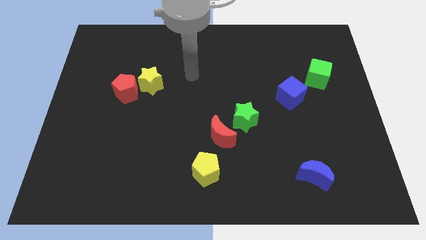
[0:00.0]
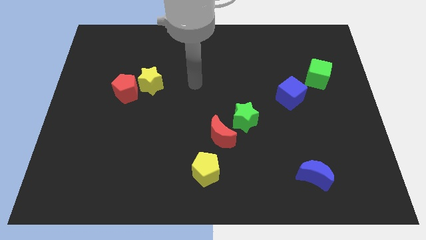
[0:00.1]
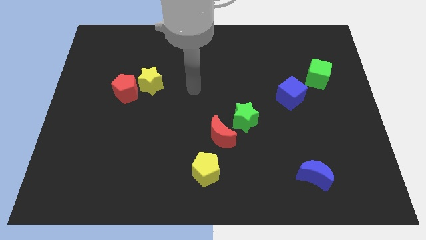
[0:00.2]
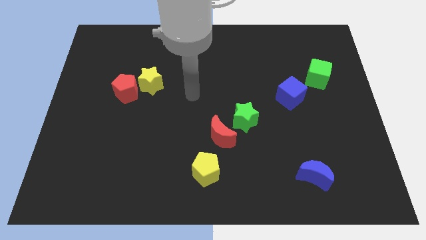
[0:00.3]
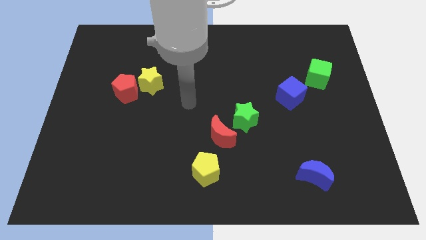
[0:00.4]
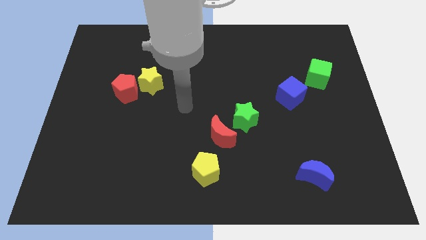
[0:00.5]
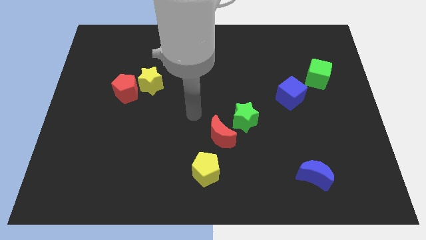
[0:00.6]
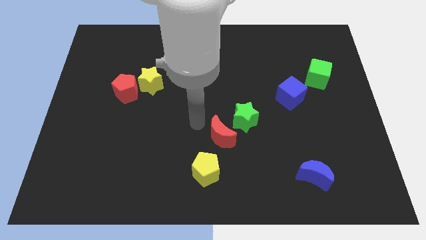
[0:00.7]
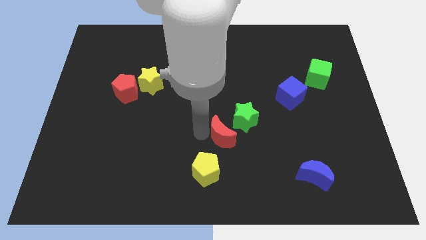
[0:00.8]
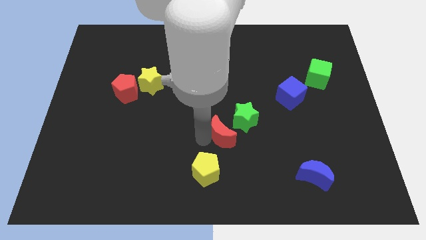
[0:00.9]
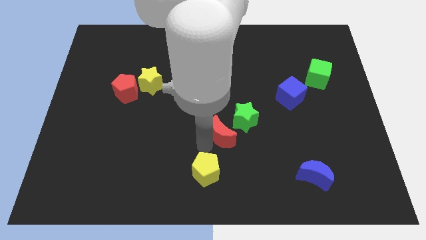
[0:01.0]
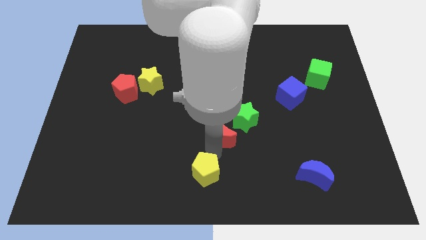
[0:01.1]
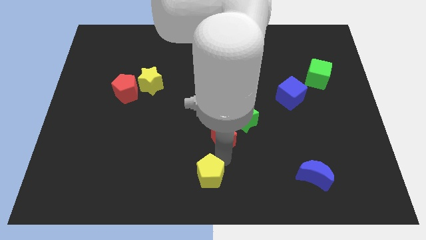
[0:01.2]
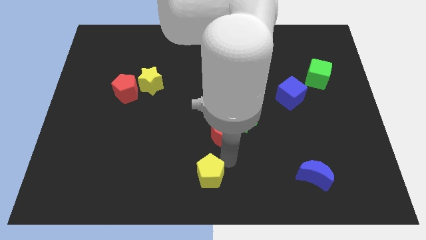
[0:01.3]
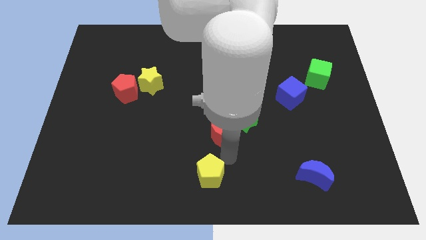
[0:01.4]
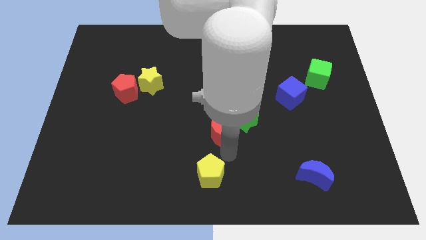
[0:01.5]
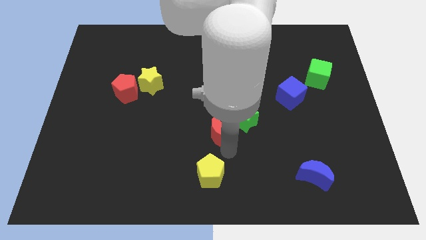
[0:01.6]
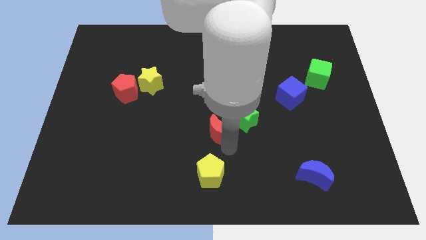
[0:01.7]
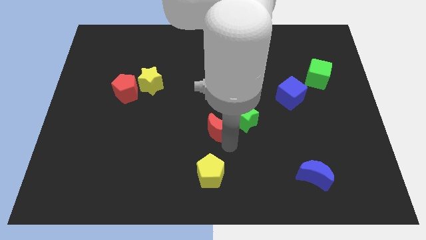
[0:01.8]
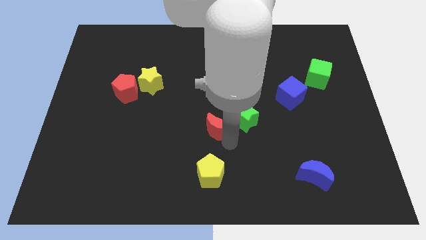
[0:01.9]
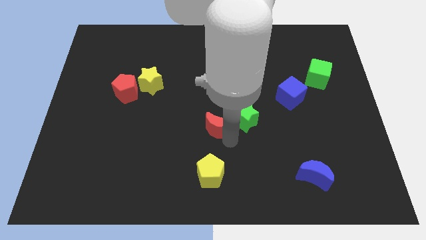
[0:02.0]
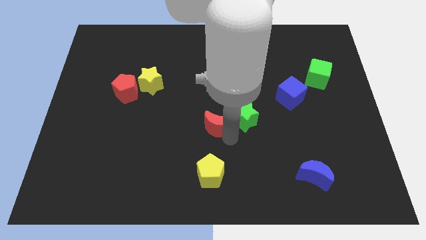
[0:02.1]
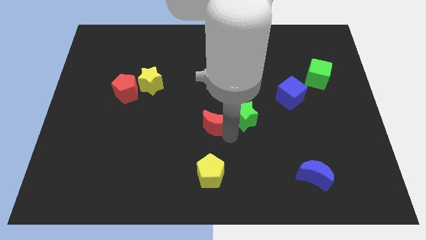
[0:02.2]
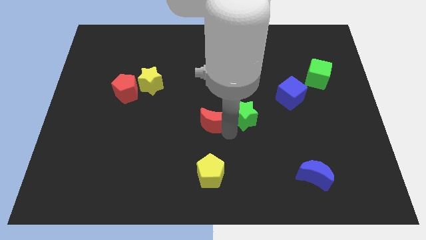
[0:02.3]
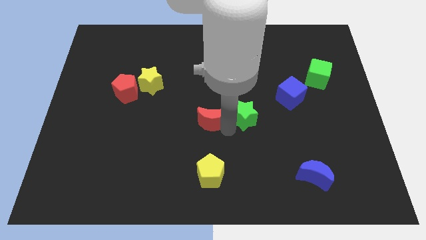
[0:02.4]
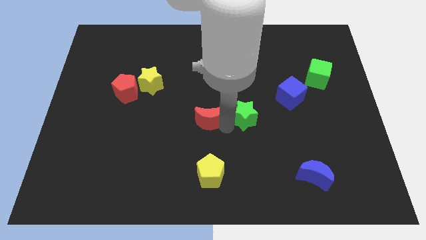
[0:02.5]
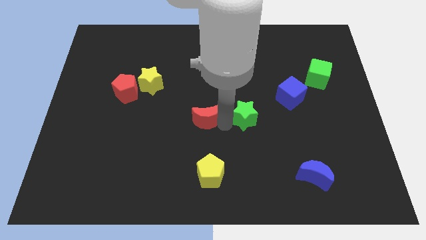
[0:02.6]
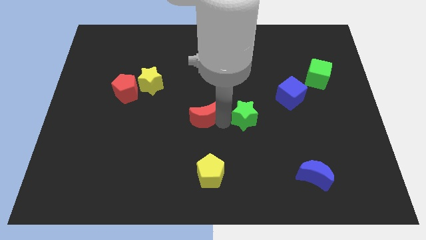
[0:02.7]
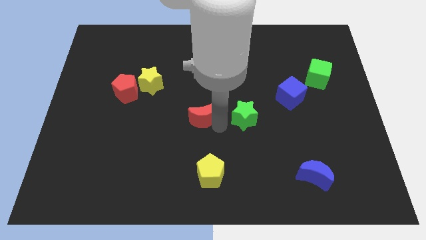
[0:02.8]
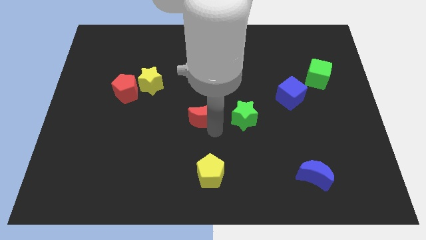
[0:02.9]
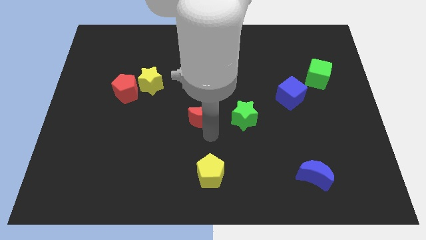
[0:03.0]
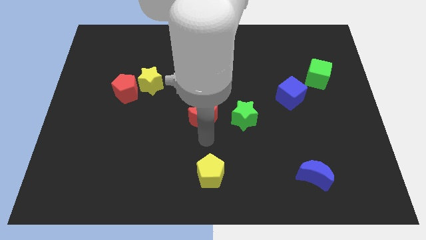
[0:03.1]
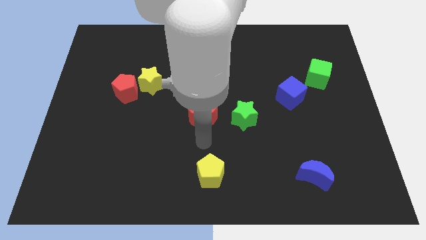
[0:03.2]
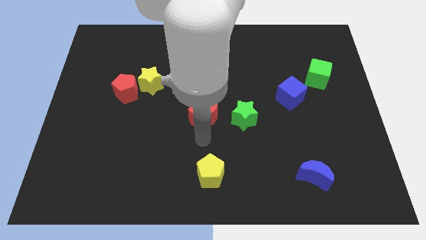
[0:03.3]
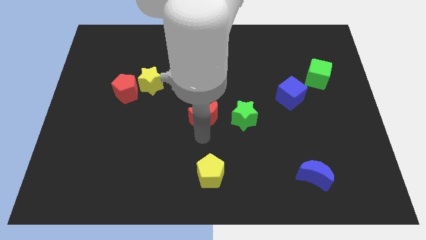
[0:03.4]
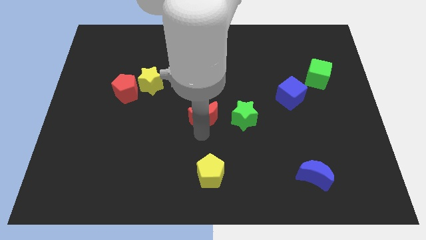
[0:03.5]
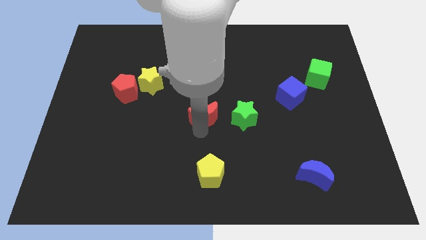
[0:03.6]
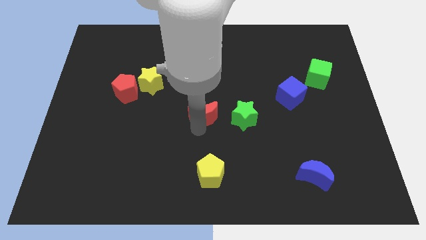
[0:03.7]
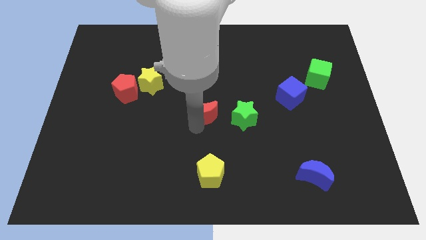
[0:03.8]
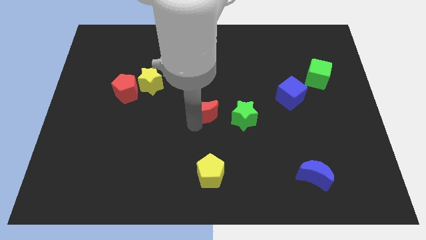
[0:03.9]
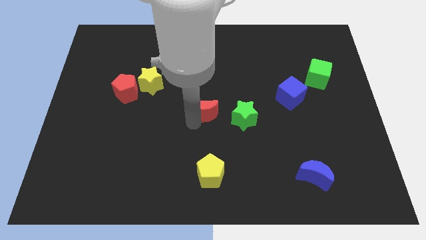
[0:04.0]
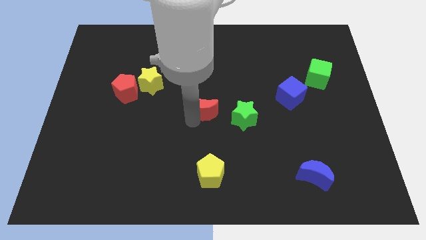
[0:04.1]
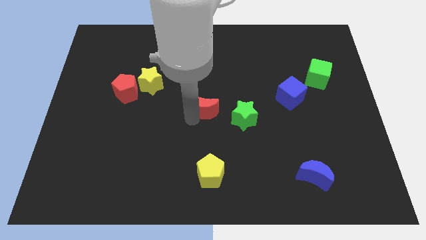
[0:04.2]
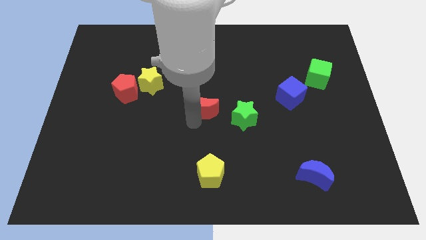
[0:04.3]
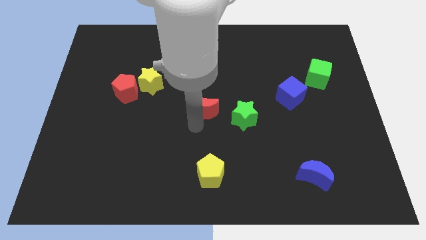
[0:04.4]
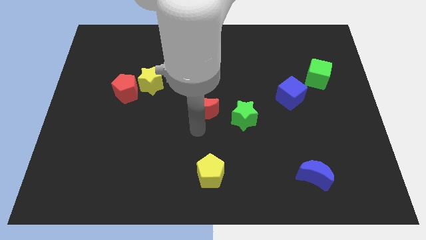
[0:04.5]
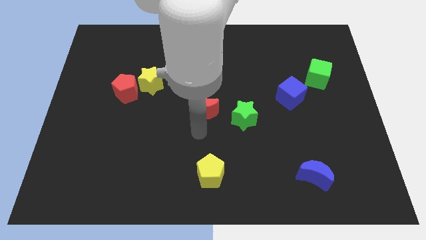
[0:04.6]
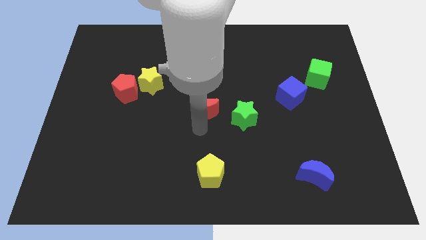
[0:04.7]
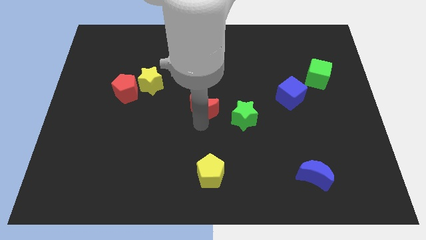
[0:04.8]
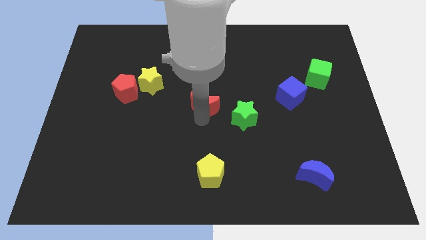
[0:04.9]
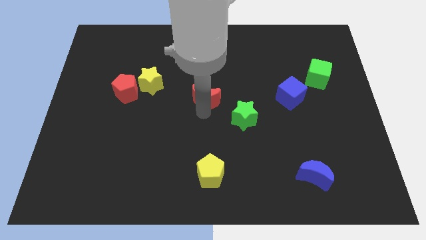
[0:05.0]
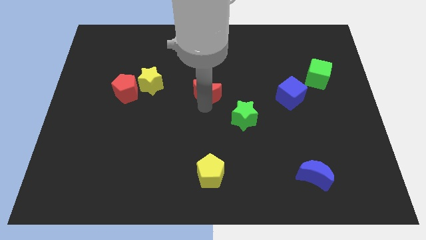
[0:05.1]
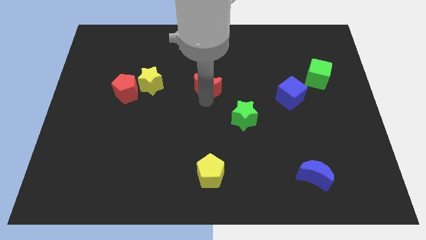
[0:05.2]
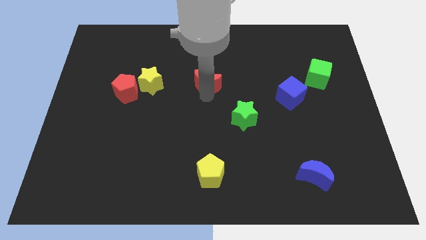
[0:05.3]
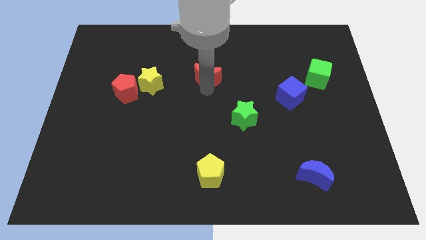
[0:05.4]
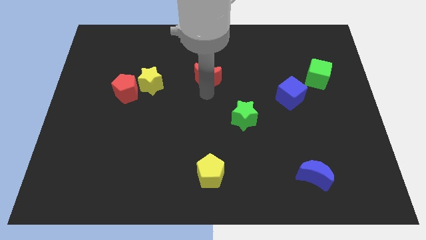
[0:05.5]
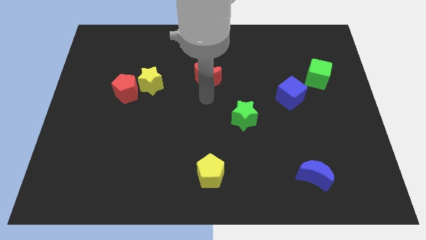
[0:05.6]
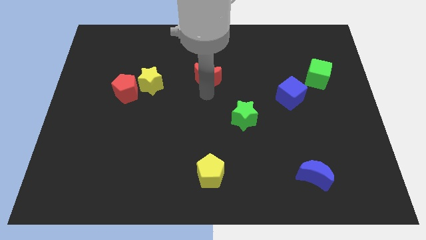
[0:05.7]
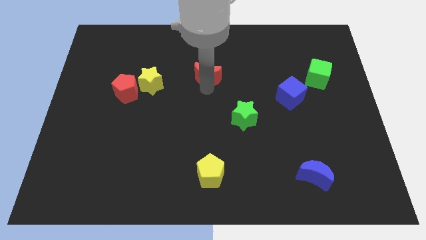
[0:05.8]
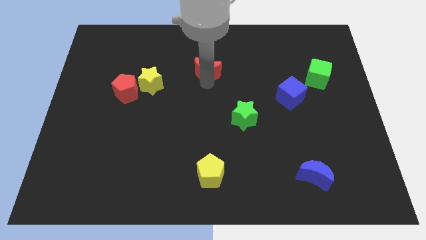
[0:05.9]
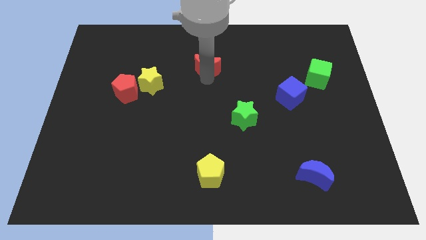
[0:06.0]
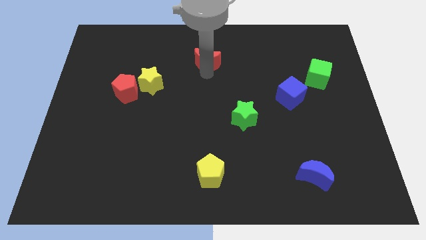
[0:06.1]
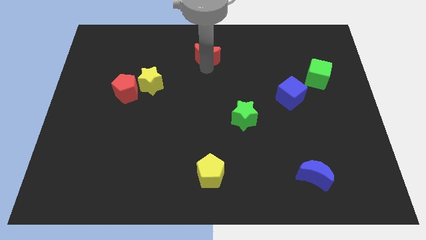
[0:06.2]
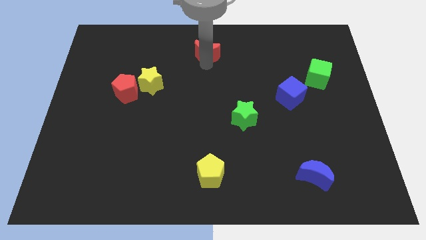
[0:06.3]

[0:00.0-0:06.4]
move the red moon to the towards your base
